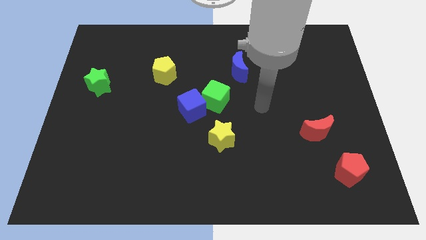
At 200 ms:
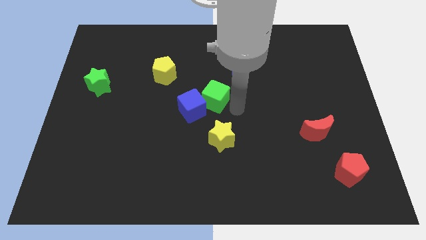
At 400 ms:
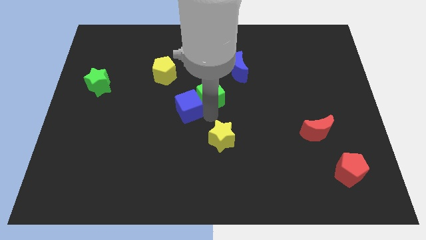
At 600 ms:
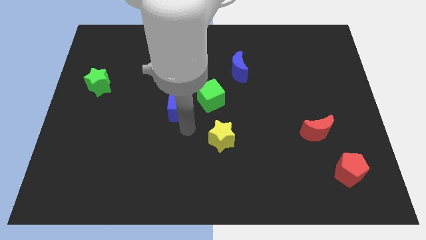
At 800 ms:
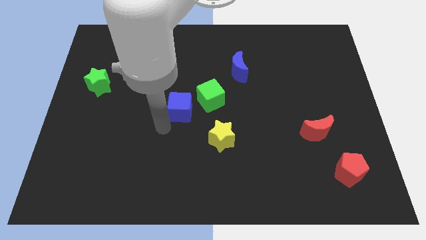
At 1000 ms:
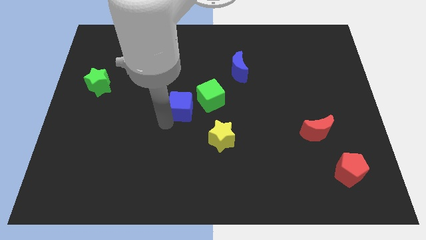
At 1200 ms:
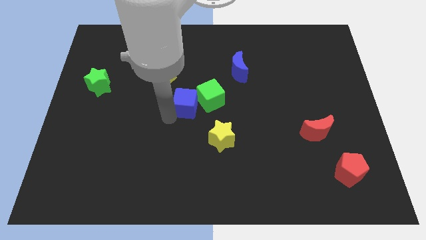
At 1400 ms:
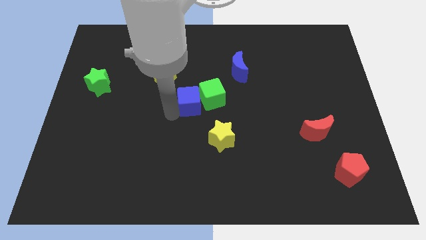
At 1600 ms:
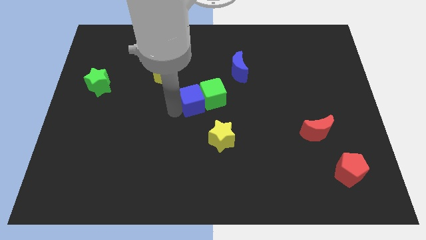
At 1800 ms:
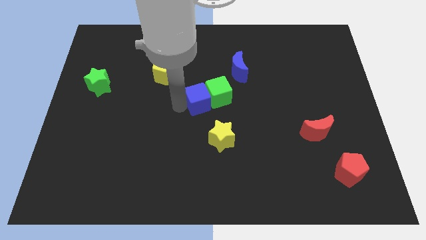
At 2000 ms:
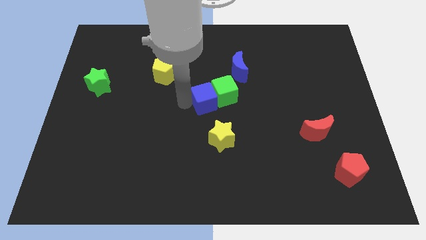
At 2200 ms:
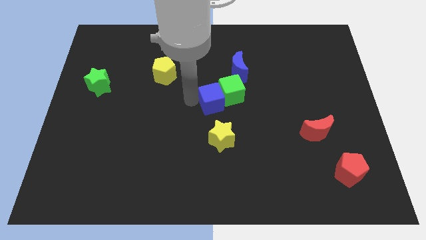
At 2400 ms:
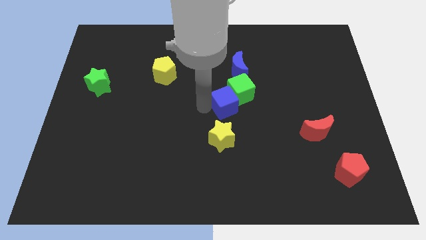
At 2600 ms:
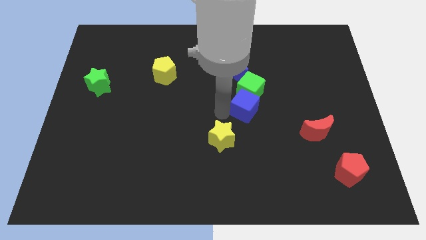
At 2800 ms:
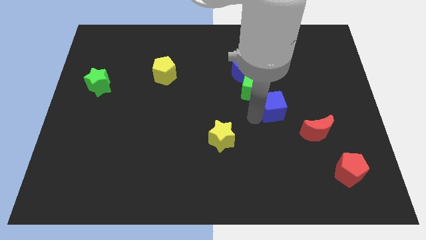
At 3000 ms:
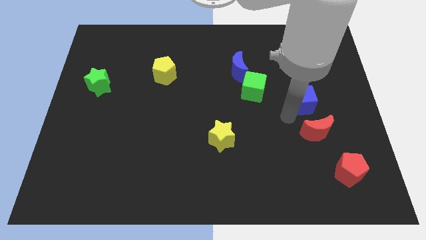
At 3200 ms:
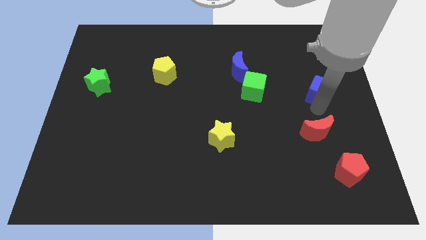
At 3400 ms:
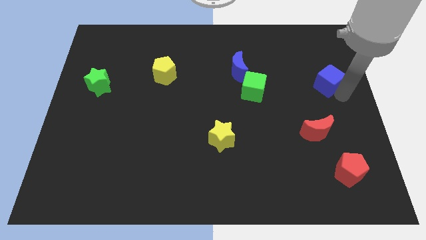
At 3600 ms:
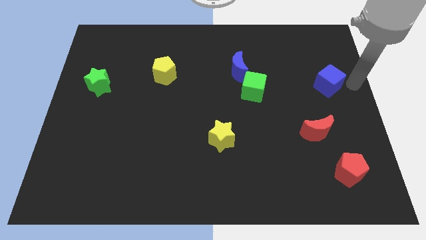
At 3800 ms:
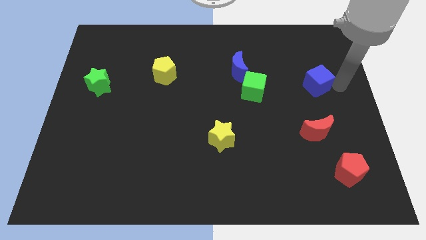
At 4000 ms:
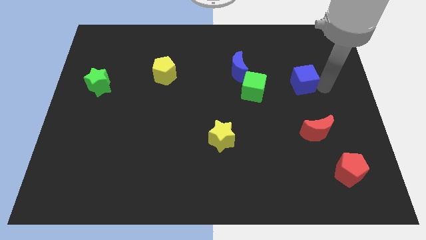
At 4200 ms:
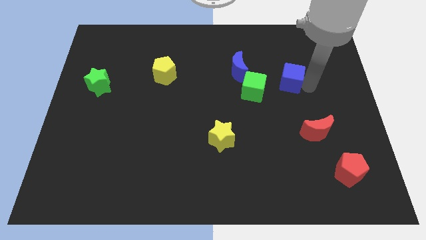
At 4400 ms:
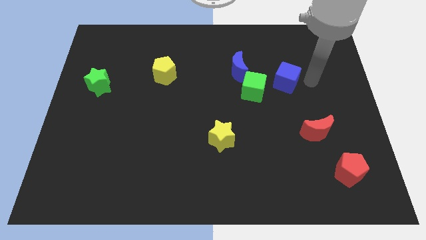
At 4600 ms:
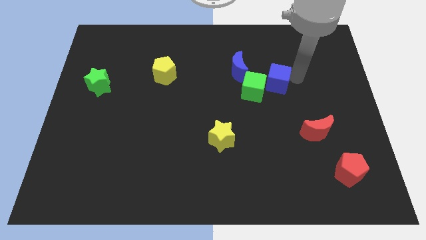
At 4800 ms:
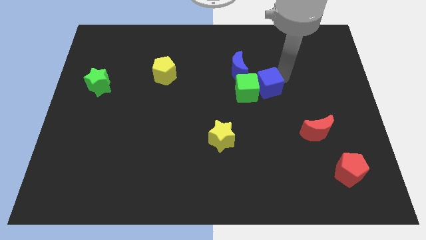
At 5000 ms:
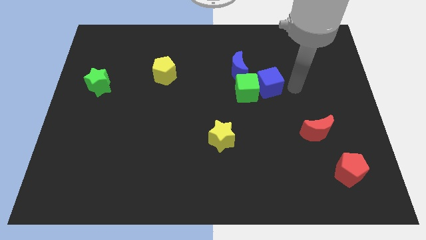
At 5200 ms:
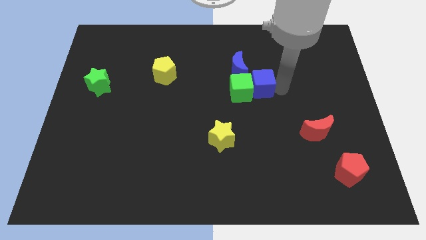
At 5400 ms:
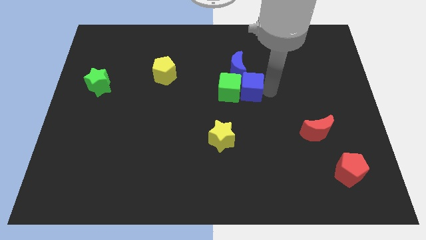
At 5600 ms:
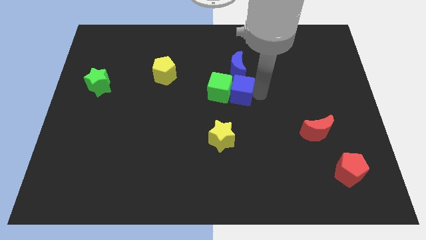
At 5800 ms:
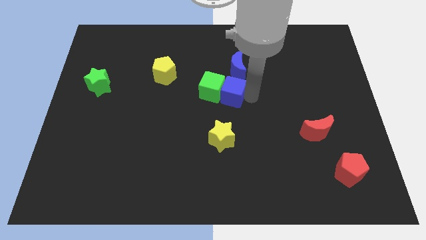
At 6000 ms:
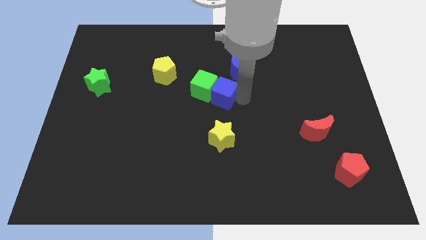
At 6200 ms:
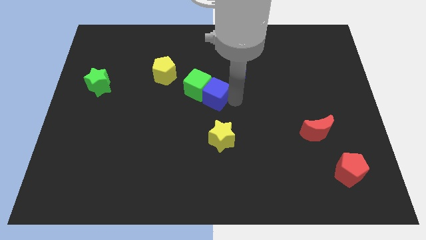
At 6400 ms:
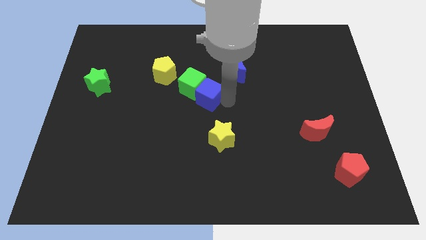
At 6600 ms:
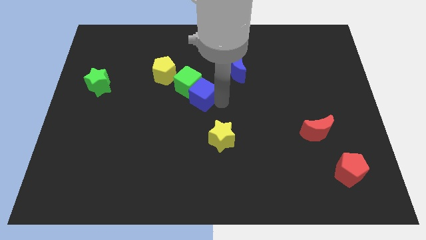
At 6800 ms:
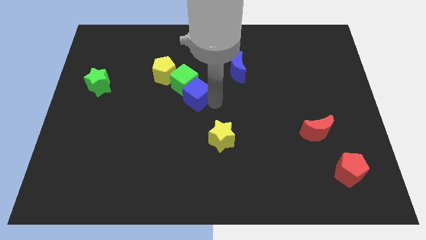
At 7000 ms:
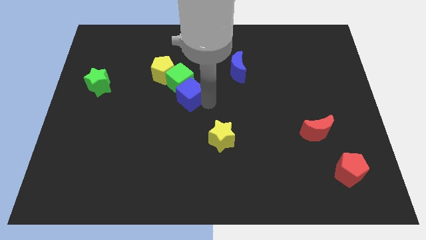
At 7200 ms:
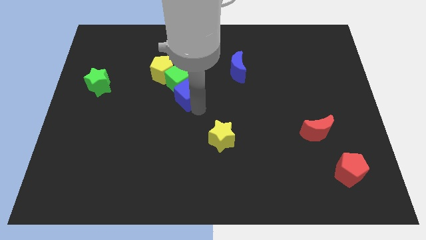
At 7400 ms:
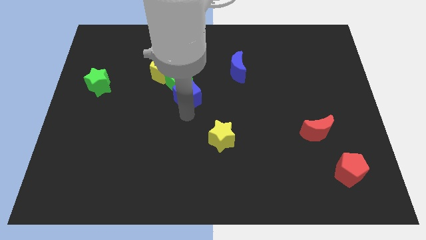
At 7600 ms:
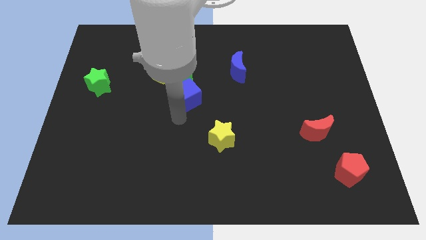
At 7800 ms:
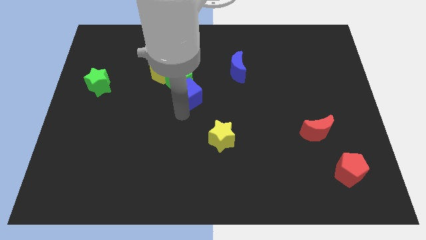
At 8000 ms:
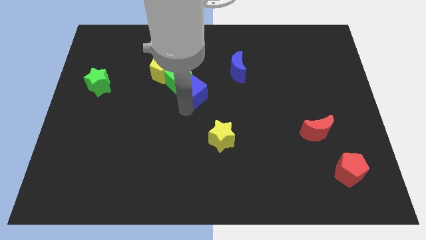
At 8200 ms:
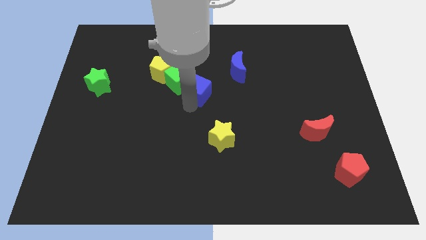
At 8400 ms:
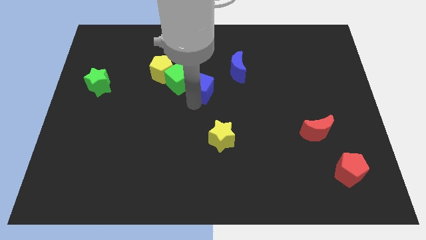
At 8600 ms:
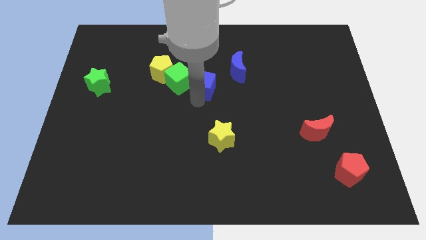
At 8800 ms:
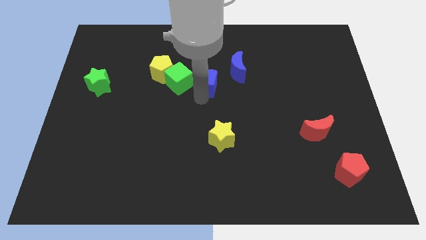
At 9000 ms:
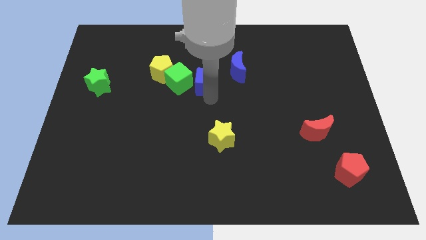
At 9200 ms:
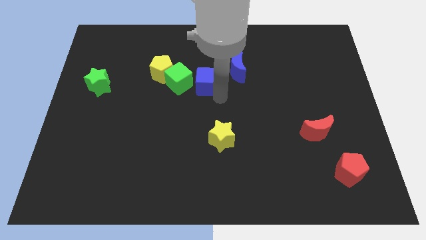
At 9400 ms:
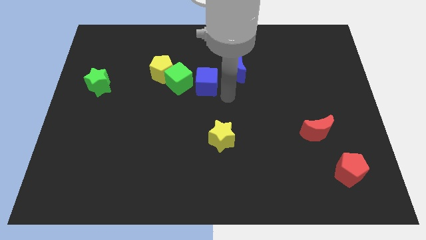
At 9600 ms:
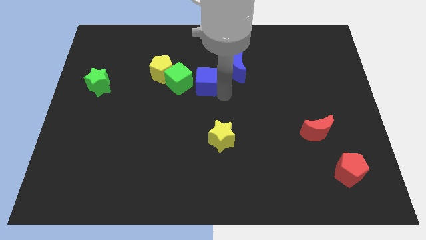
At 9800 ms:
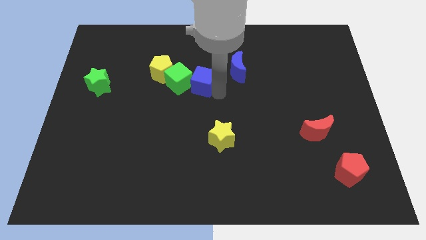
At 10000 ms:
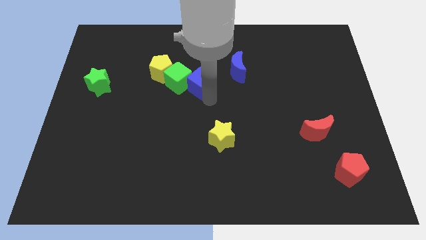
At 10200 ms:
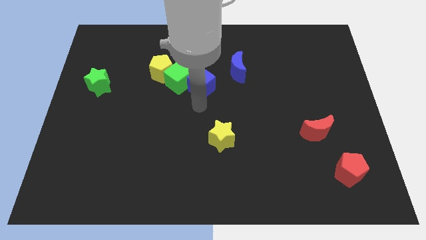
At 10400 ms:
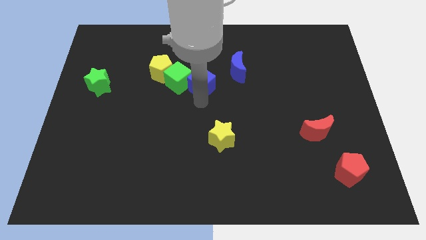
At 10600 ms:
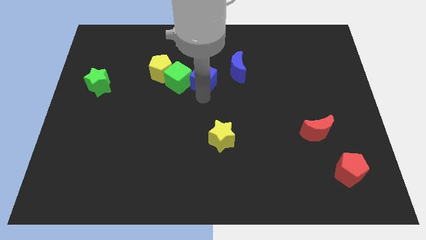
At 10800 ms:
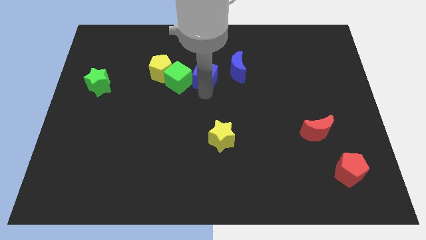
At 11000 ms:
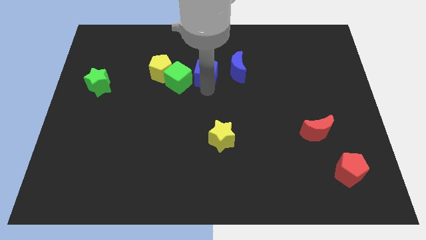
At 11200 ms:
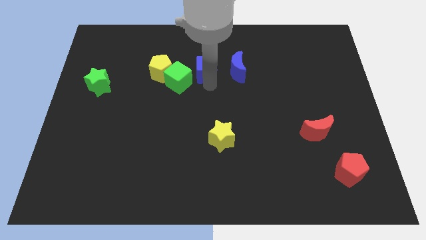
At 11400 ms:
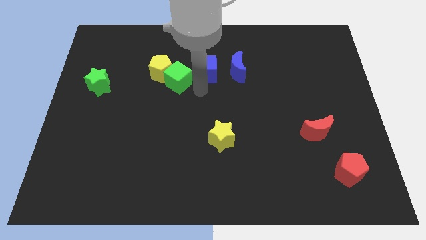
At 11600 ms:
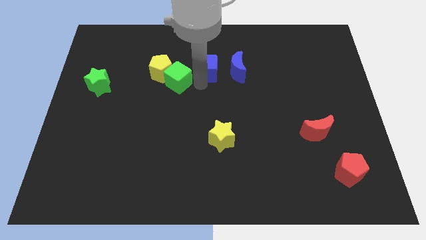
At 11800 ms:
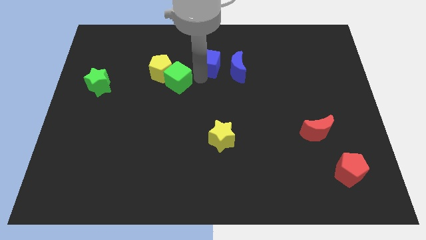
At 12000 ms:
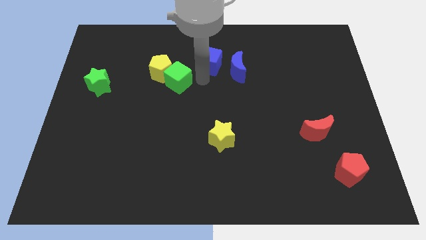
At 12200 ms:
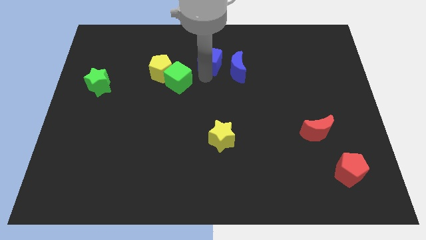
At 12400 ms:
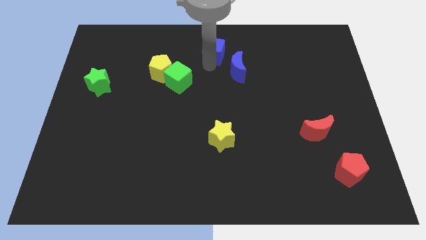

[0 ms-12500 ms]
push the blue cube to the top side
